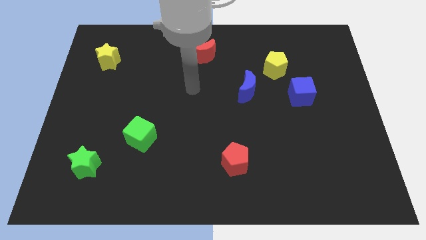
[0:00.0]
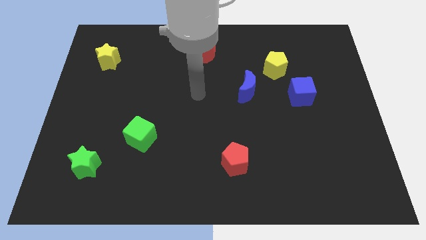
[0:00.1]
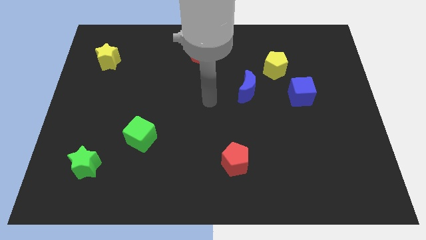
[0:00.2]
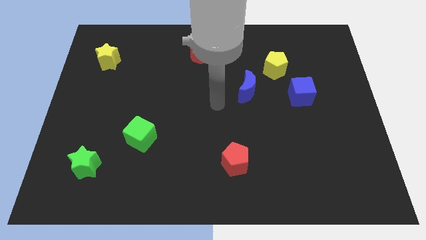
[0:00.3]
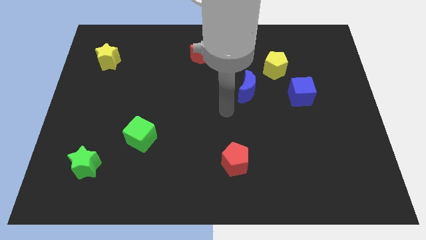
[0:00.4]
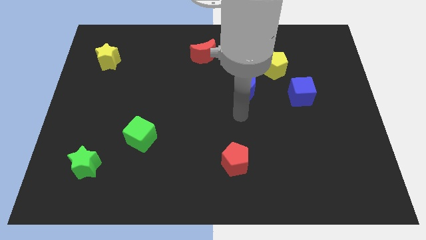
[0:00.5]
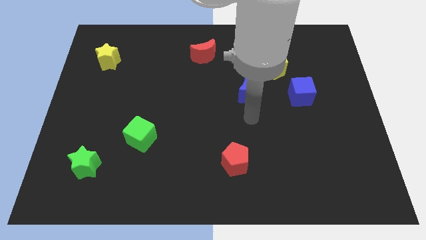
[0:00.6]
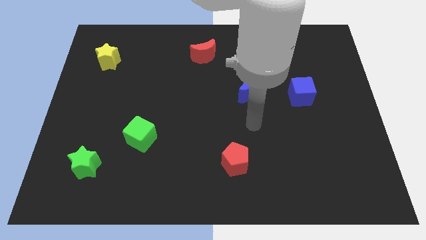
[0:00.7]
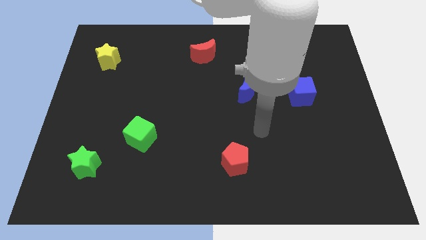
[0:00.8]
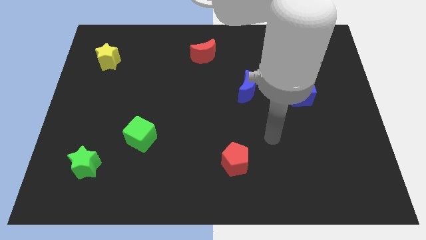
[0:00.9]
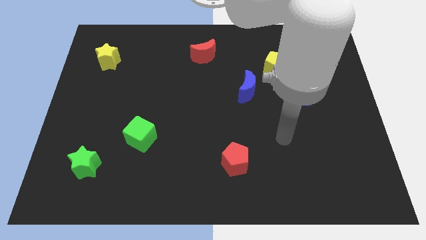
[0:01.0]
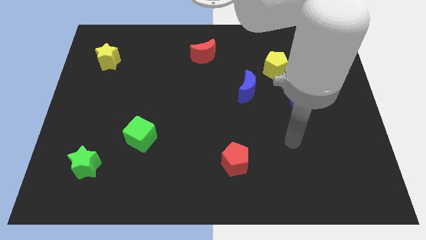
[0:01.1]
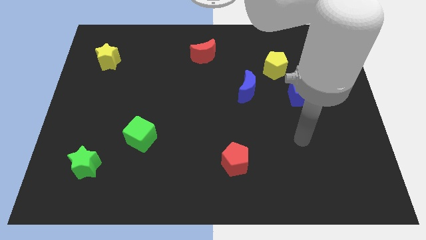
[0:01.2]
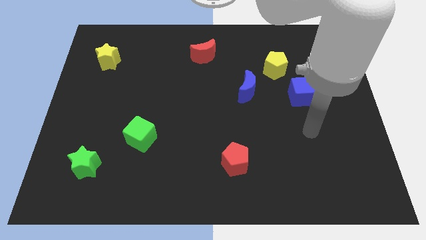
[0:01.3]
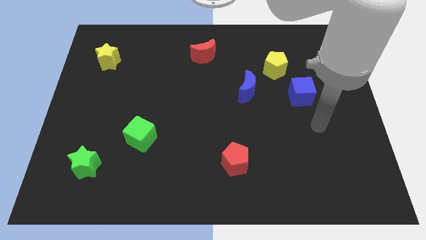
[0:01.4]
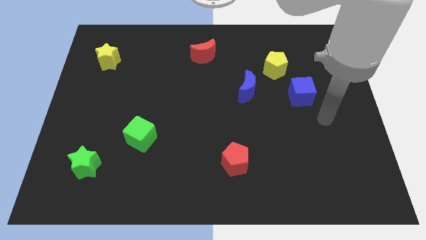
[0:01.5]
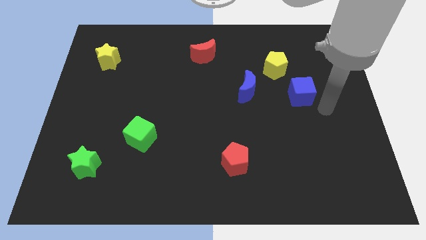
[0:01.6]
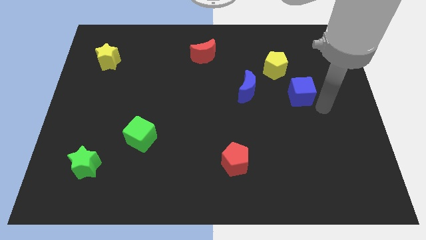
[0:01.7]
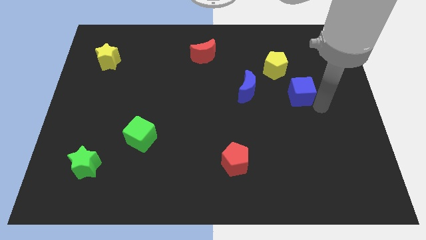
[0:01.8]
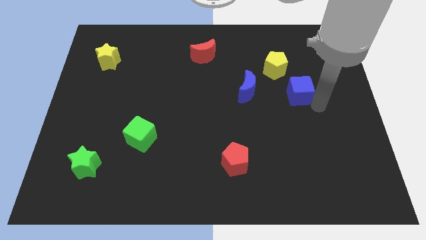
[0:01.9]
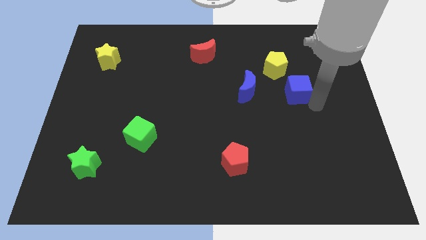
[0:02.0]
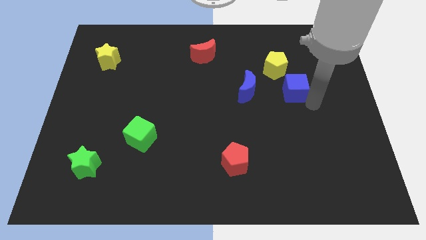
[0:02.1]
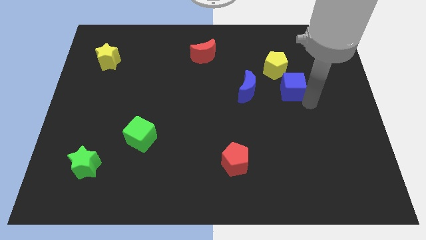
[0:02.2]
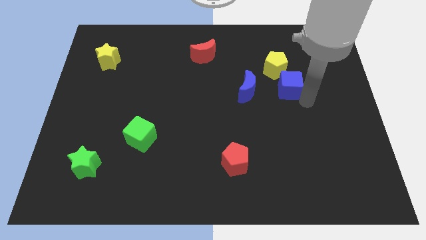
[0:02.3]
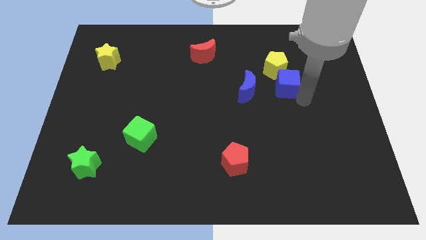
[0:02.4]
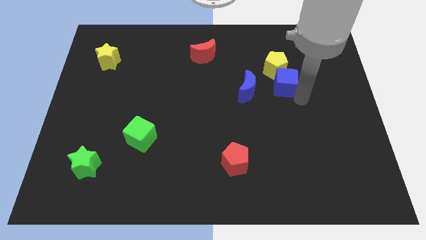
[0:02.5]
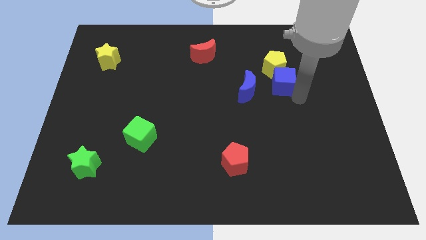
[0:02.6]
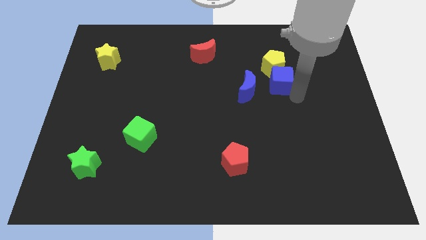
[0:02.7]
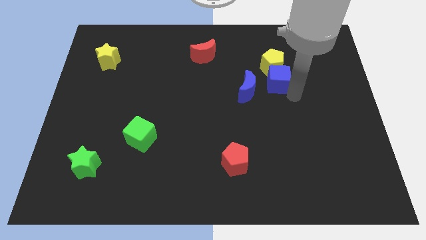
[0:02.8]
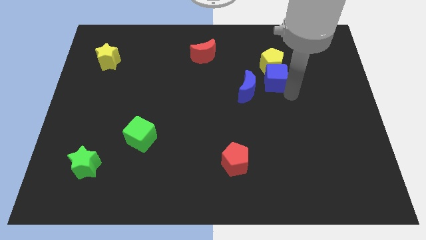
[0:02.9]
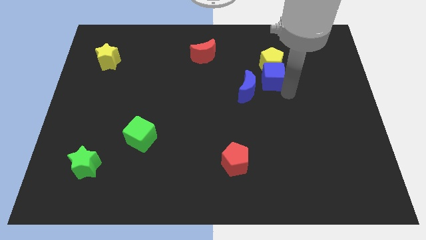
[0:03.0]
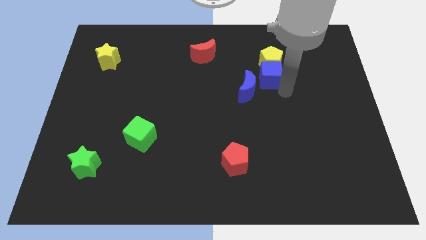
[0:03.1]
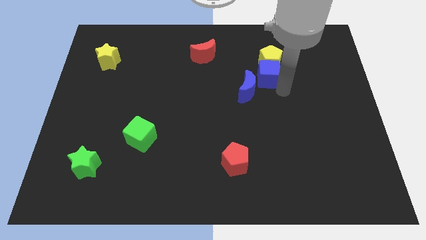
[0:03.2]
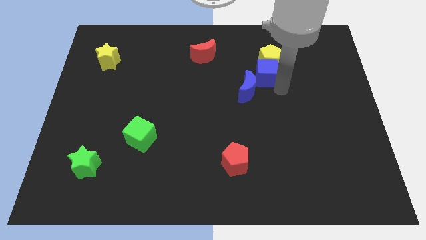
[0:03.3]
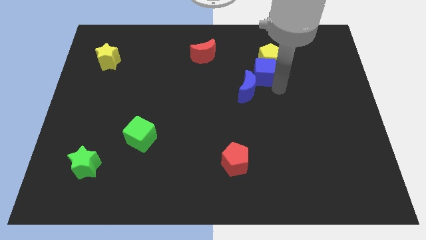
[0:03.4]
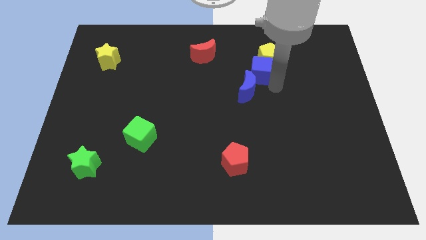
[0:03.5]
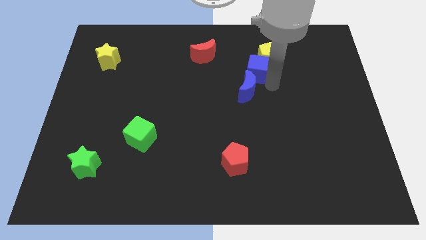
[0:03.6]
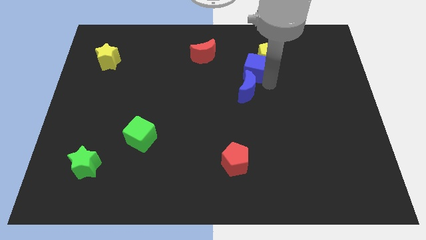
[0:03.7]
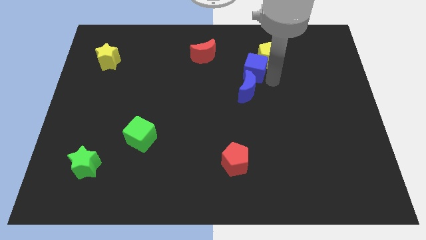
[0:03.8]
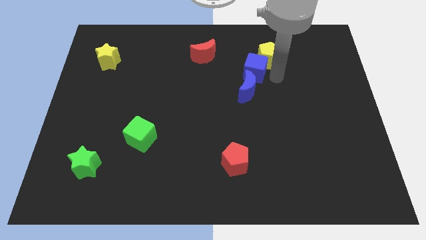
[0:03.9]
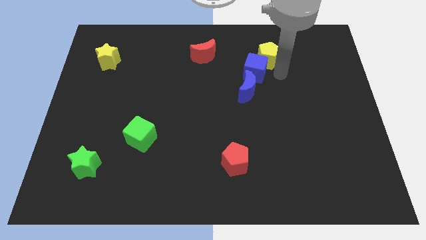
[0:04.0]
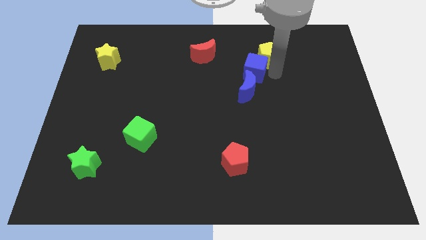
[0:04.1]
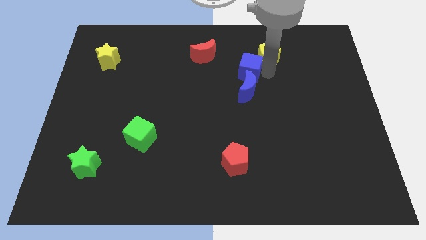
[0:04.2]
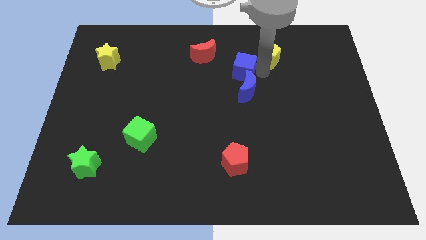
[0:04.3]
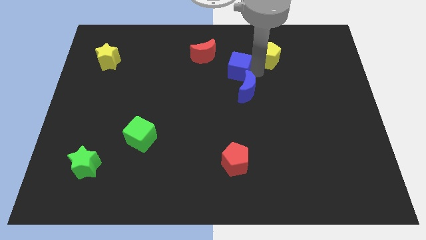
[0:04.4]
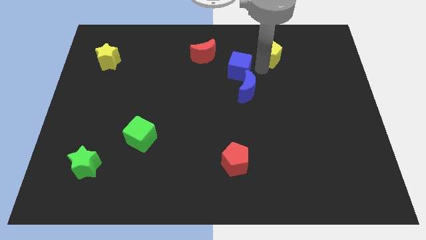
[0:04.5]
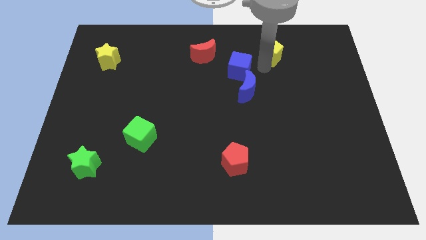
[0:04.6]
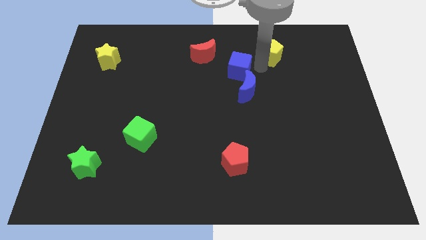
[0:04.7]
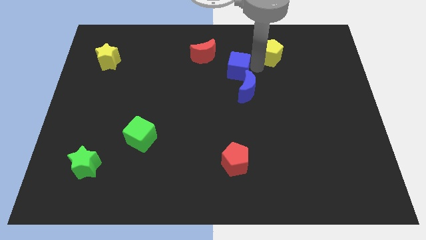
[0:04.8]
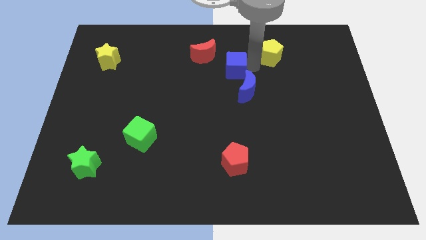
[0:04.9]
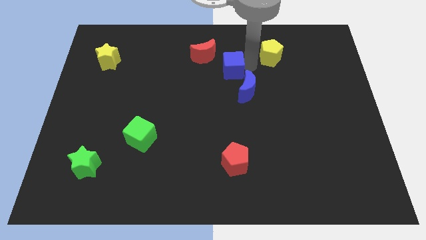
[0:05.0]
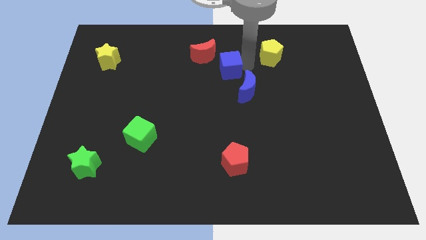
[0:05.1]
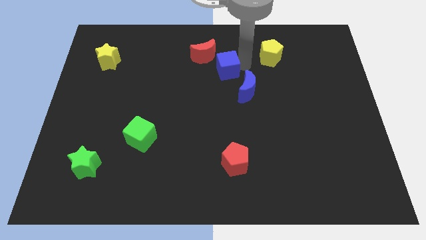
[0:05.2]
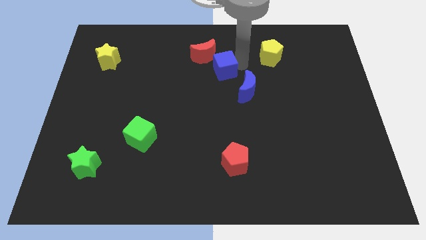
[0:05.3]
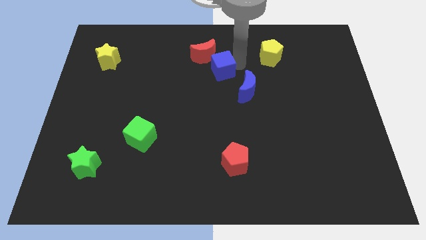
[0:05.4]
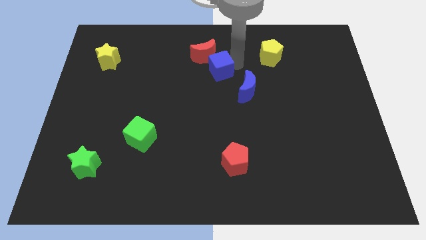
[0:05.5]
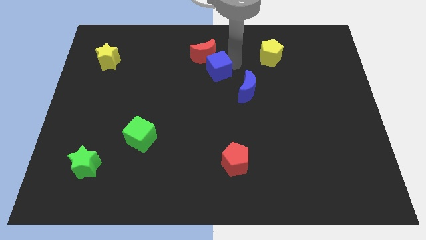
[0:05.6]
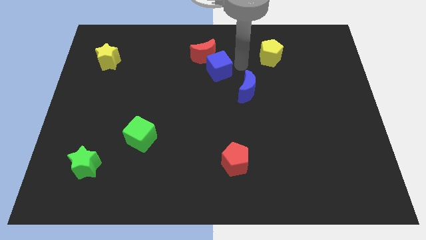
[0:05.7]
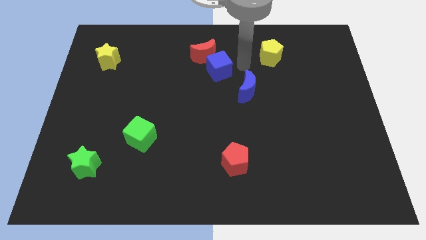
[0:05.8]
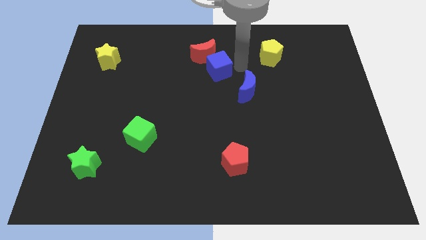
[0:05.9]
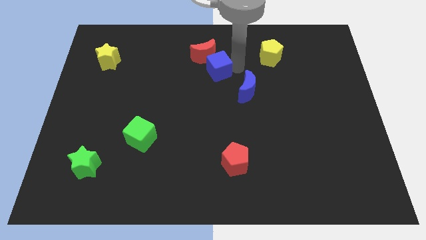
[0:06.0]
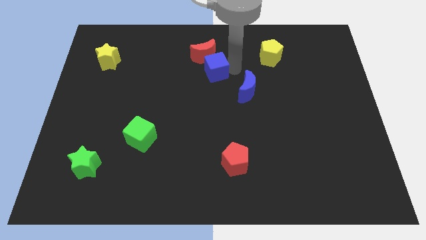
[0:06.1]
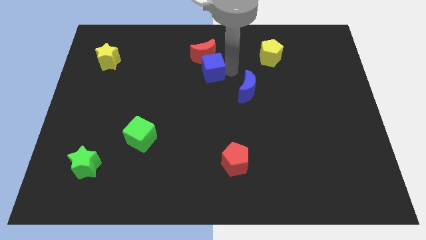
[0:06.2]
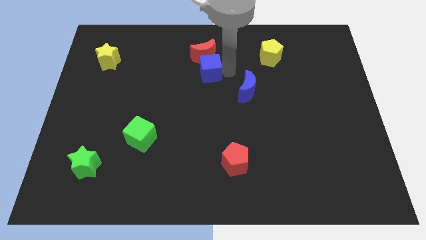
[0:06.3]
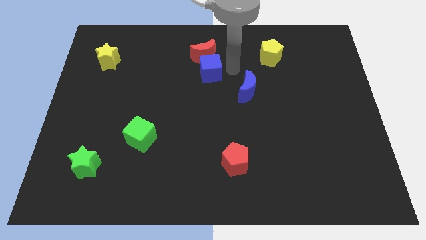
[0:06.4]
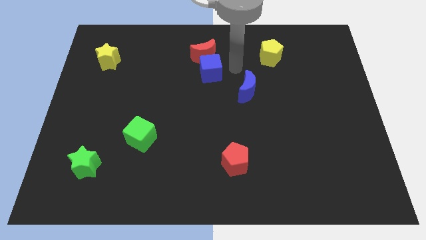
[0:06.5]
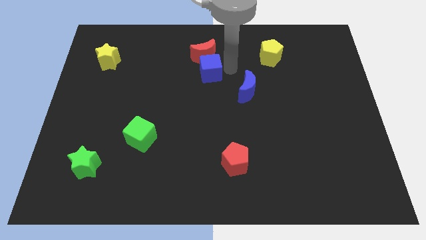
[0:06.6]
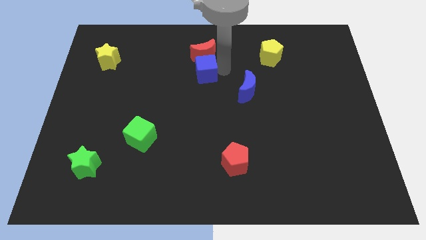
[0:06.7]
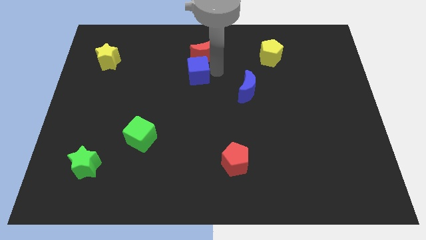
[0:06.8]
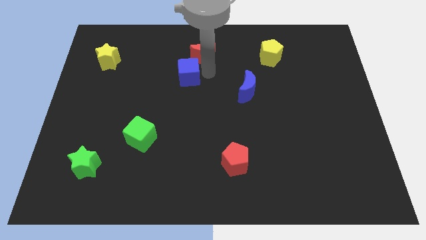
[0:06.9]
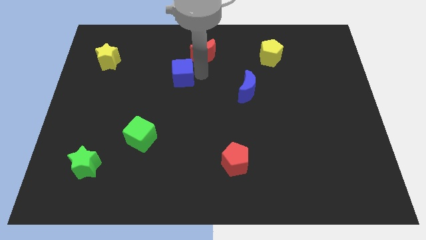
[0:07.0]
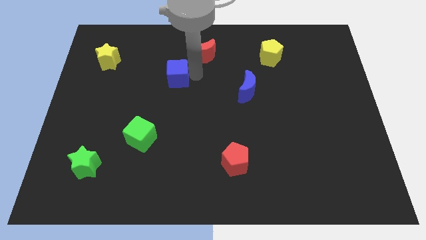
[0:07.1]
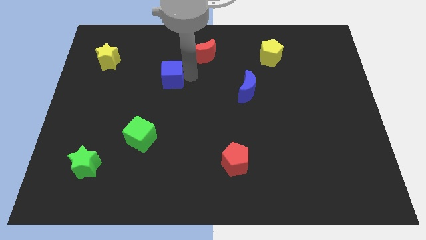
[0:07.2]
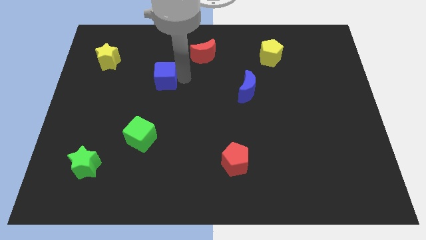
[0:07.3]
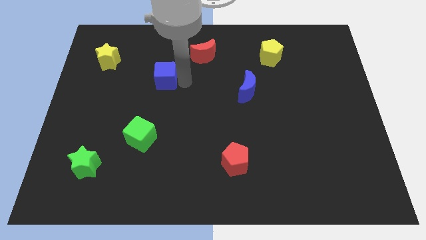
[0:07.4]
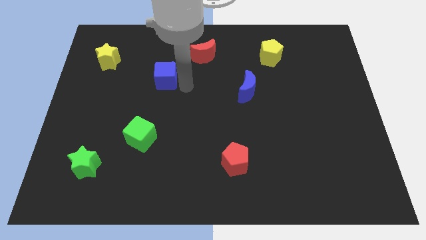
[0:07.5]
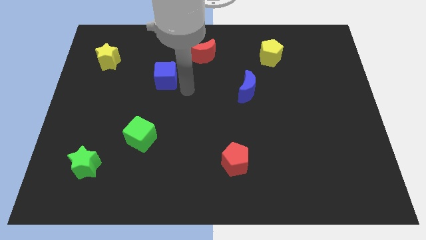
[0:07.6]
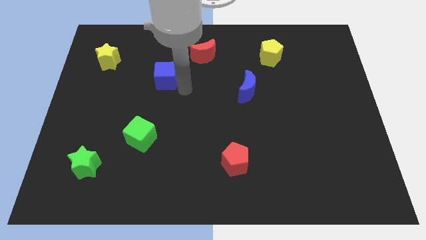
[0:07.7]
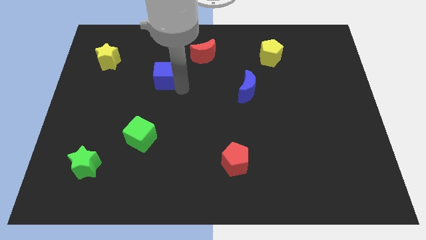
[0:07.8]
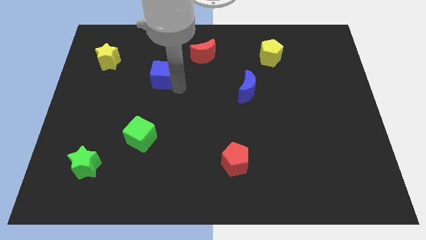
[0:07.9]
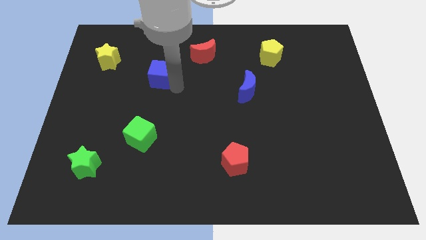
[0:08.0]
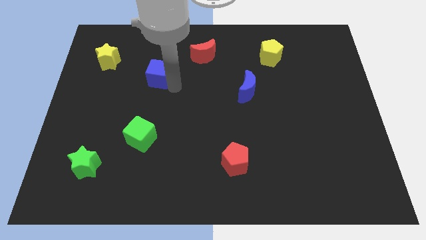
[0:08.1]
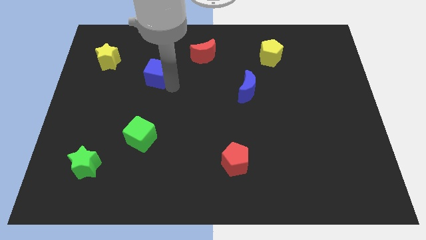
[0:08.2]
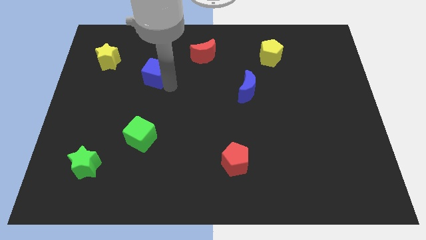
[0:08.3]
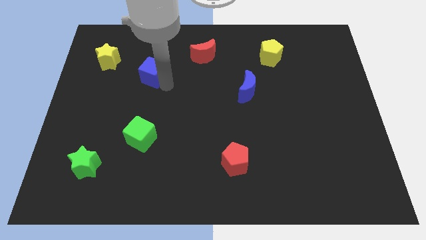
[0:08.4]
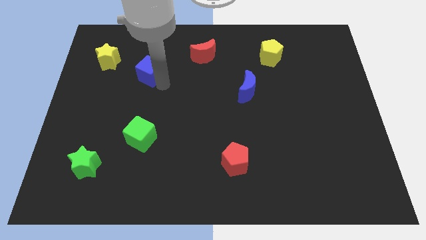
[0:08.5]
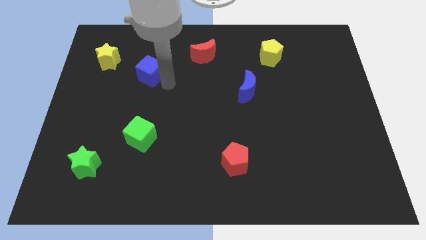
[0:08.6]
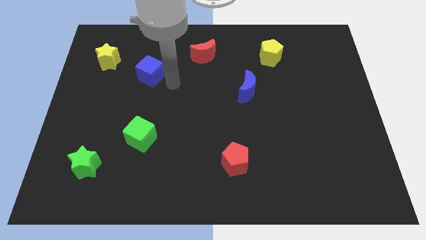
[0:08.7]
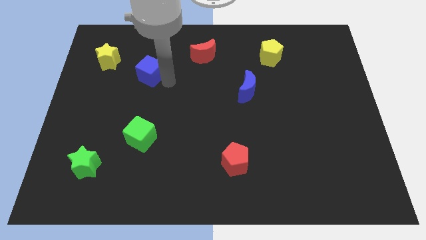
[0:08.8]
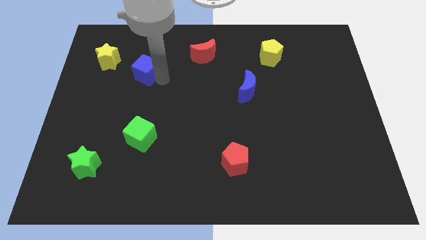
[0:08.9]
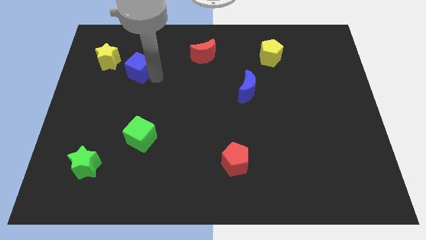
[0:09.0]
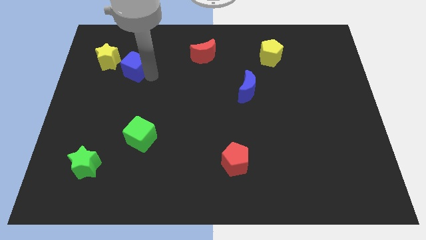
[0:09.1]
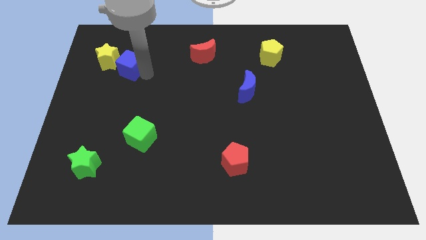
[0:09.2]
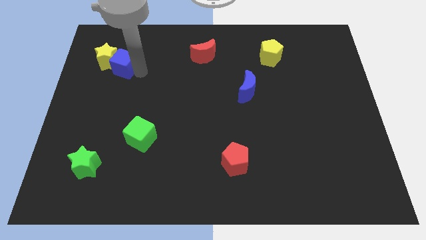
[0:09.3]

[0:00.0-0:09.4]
move the blue cube to the yellow star
